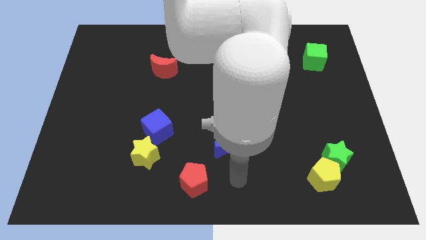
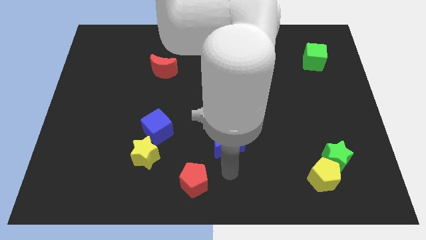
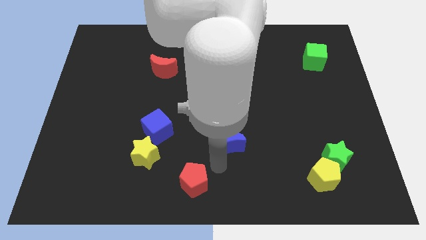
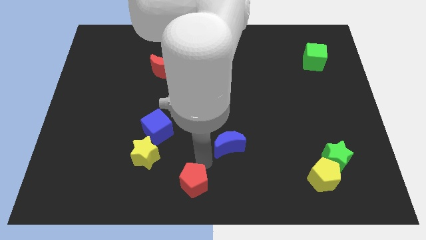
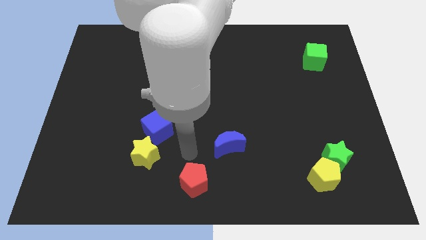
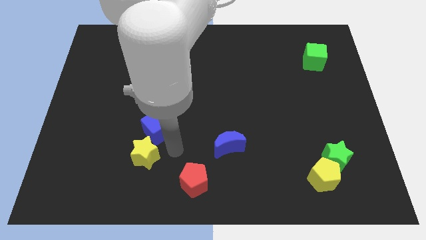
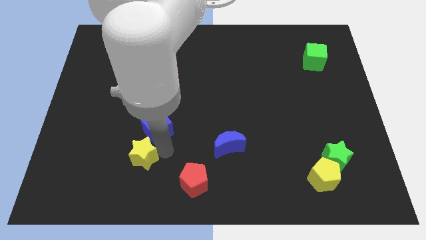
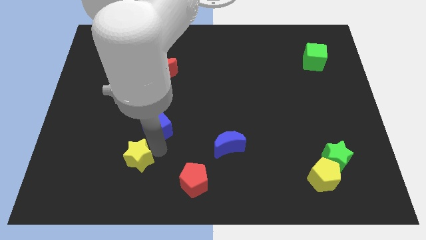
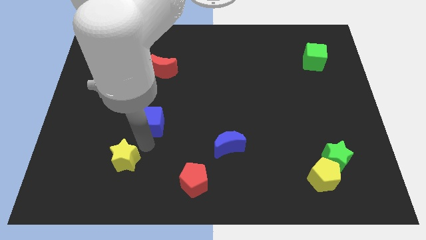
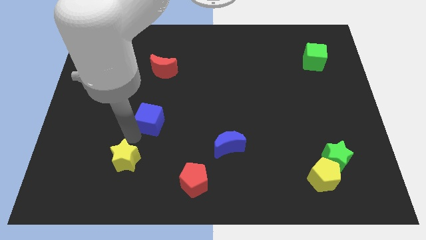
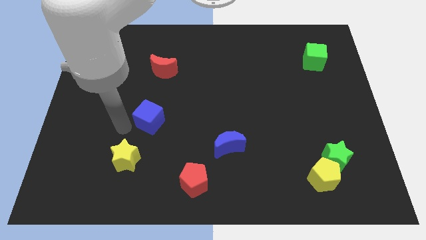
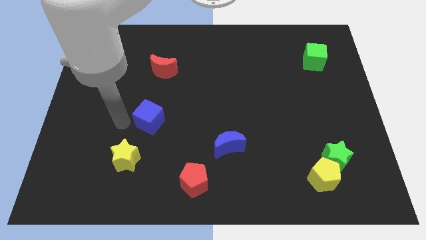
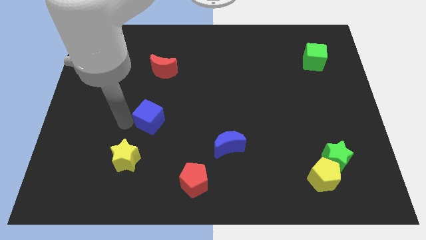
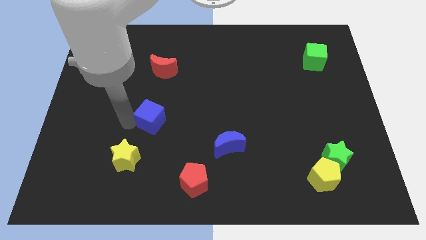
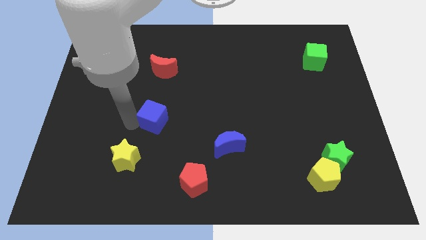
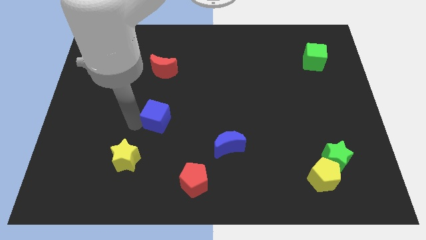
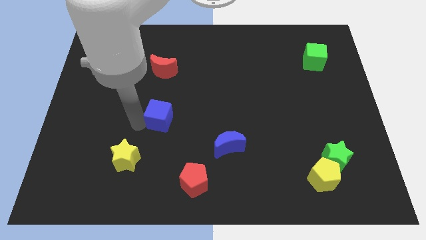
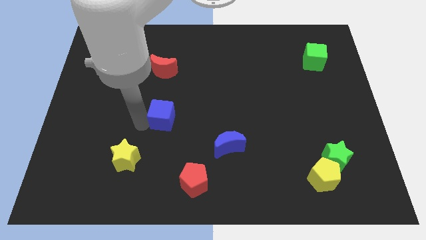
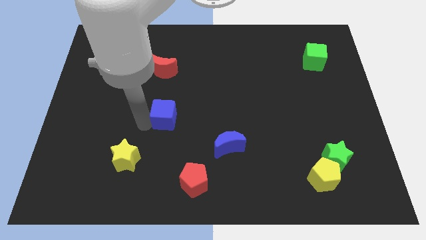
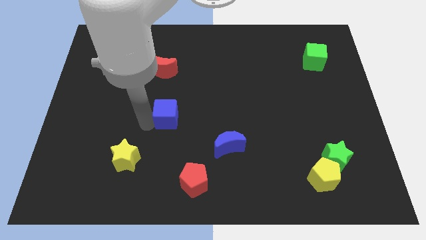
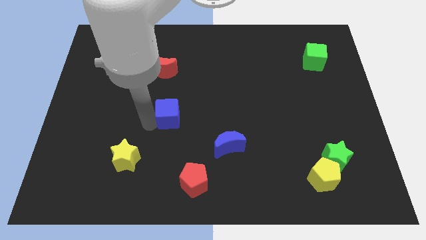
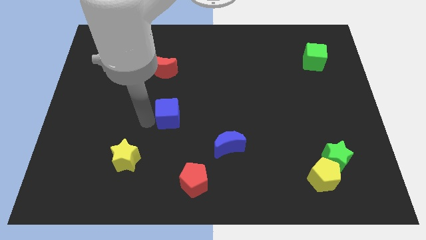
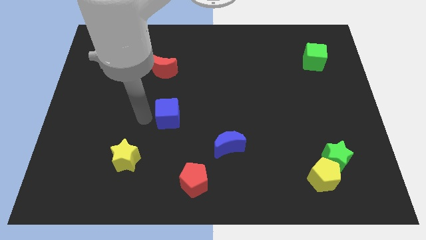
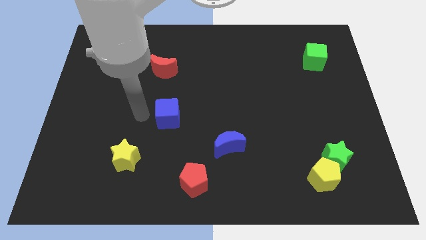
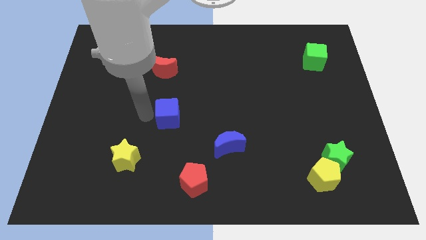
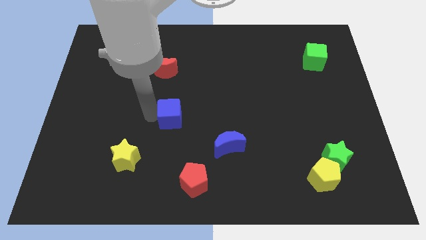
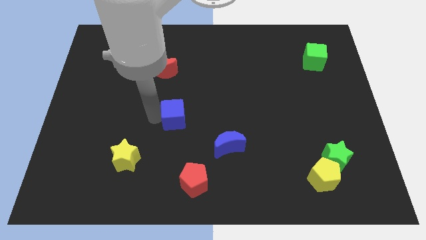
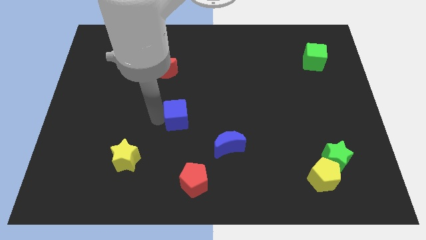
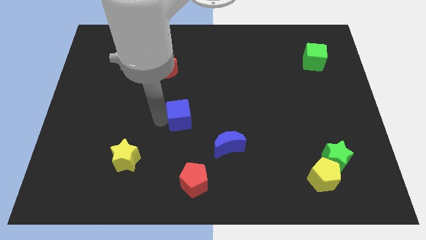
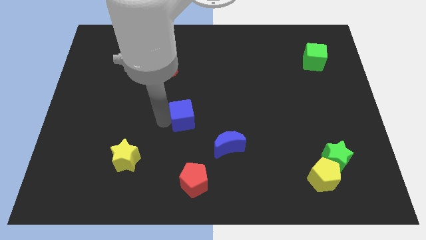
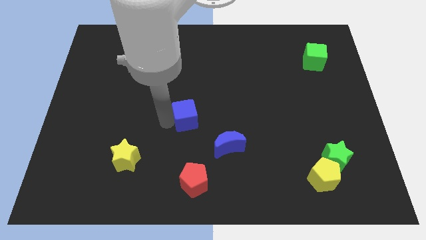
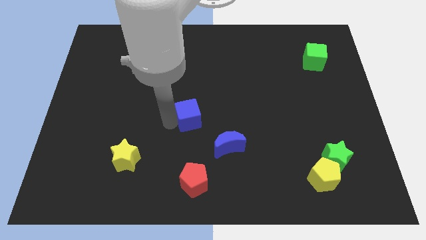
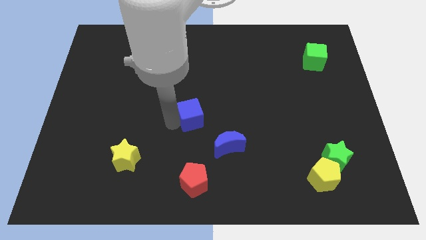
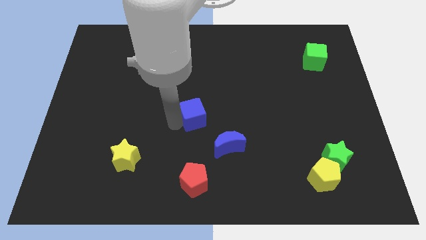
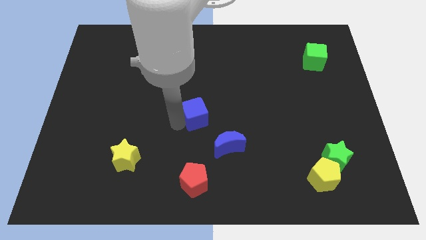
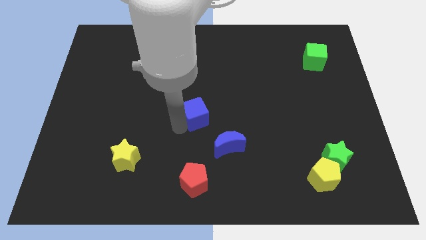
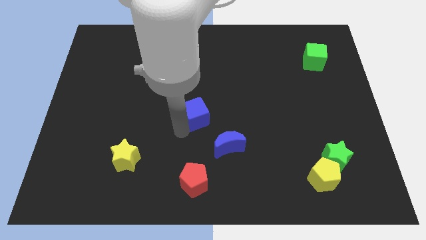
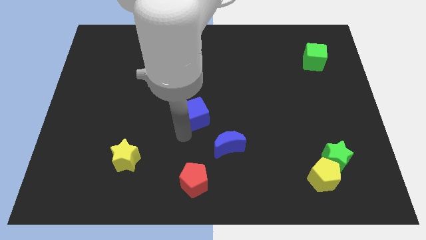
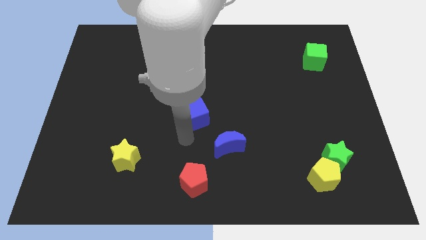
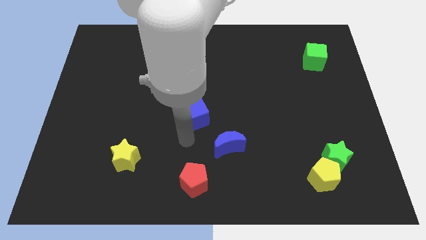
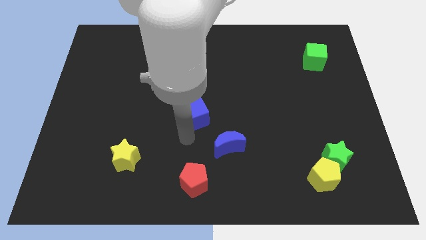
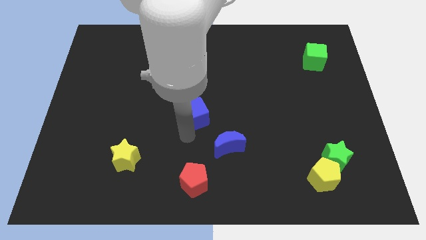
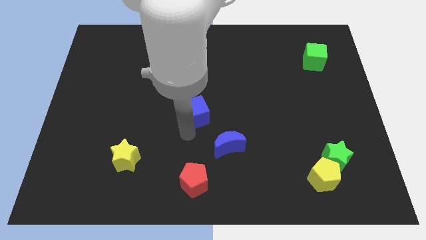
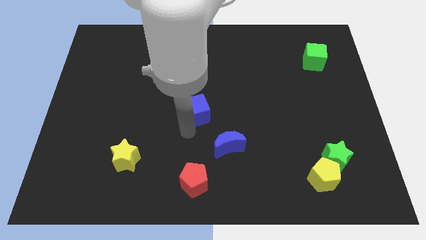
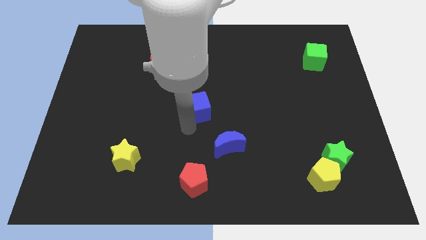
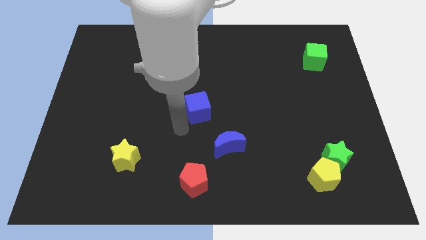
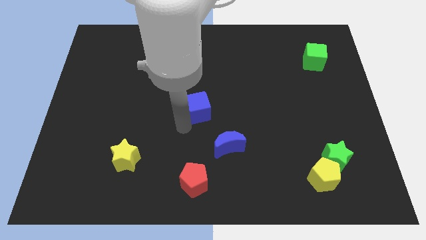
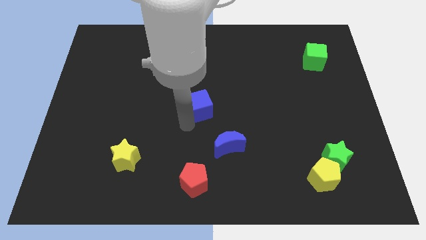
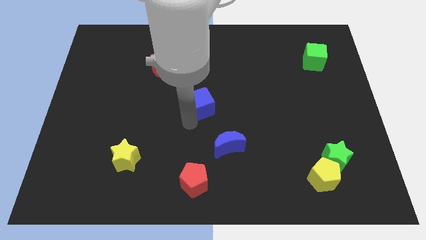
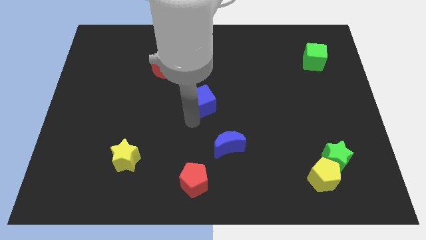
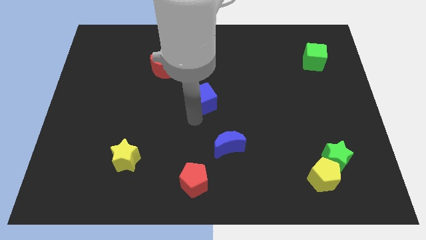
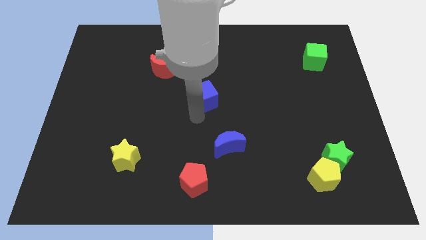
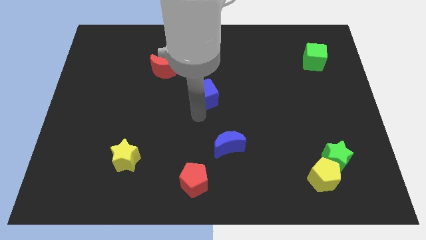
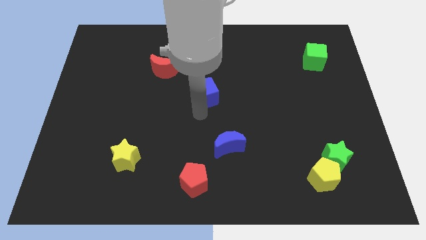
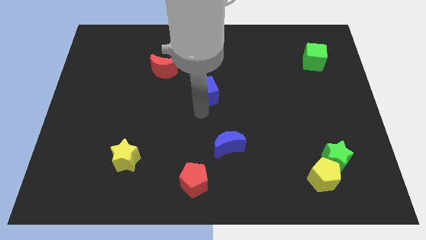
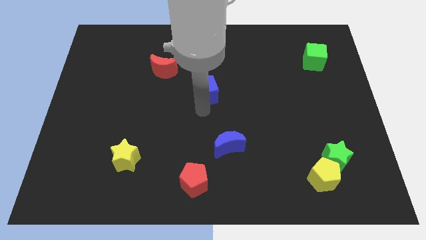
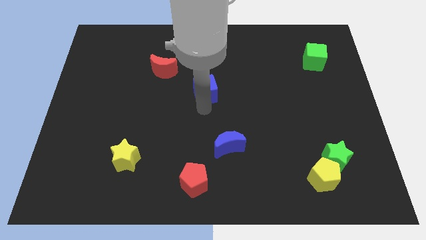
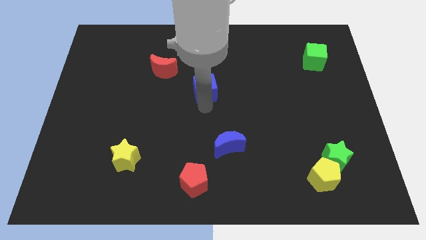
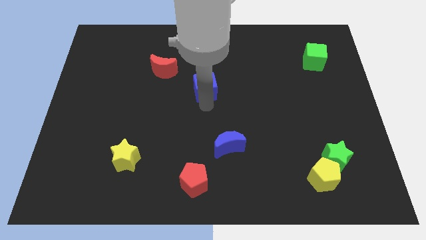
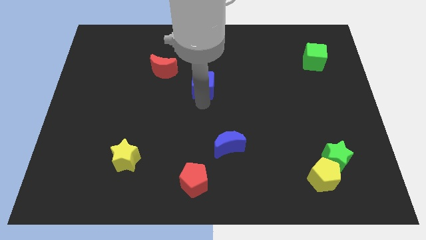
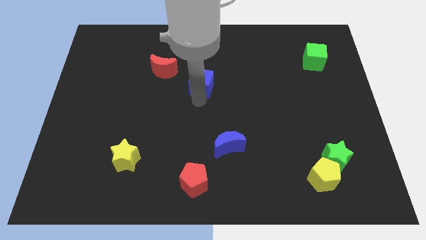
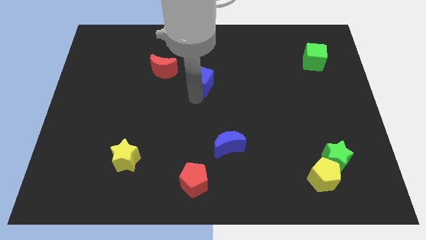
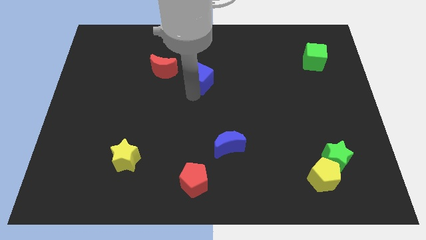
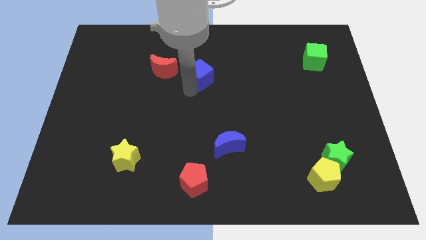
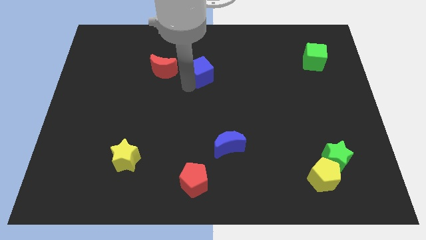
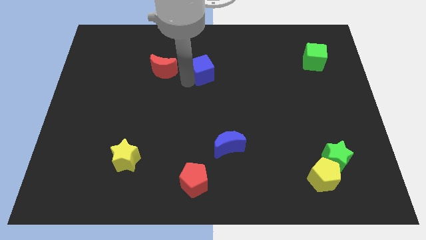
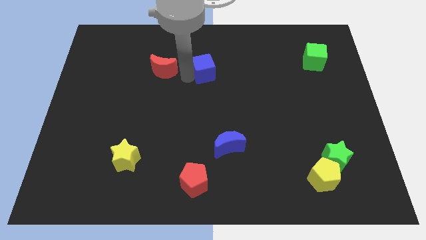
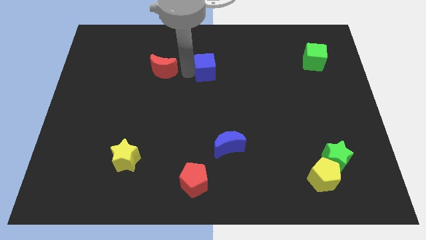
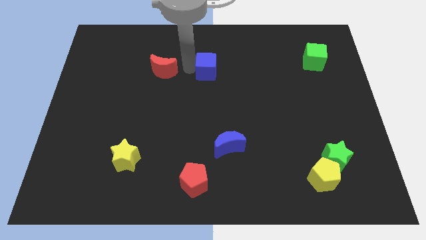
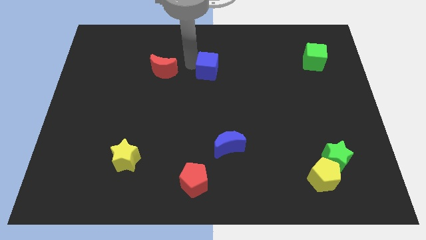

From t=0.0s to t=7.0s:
slide the blue cube upwards and to the right
